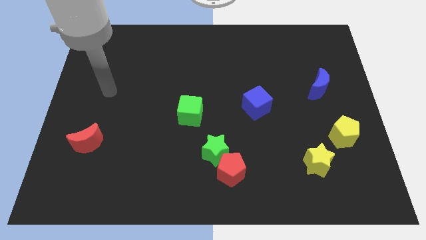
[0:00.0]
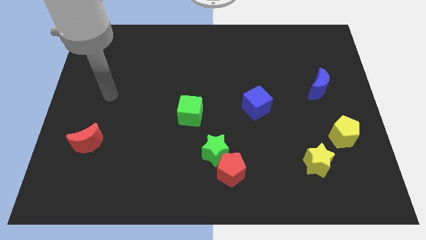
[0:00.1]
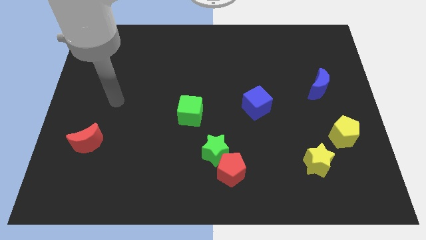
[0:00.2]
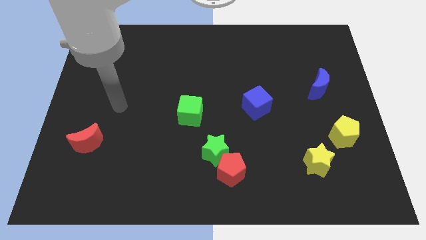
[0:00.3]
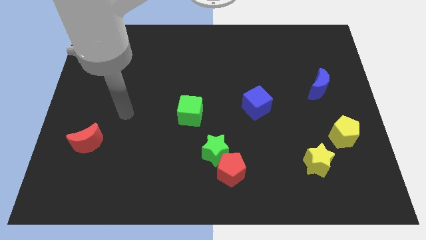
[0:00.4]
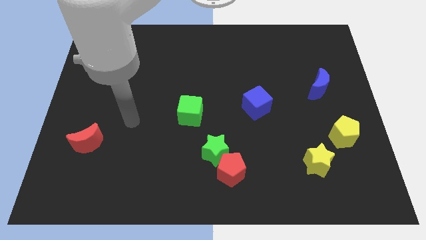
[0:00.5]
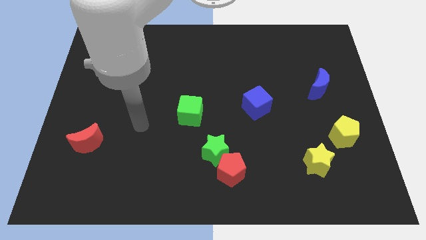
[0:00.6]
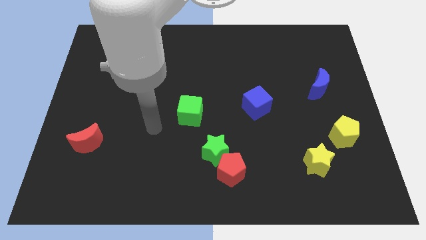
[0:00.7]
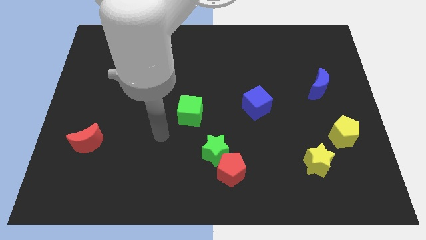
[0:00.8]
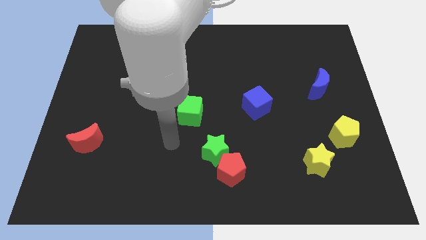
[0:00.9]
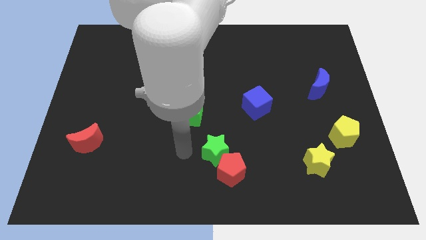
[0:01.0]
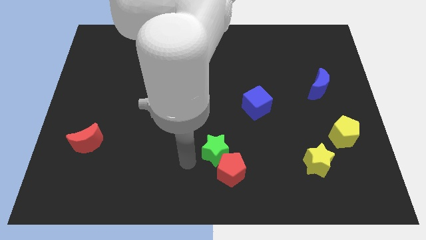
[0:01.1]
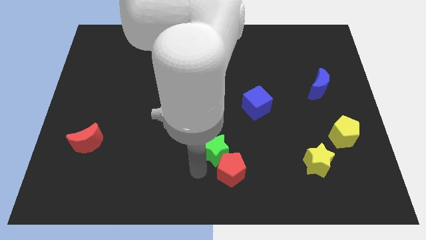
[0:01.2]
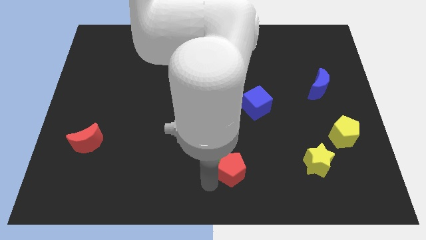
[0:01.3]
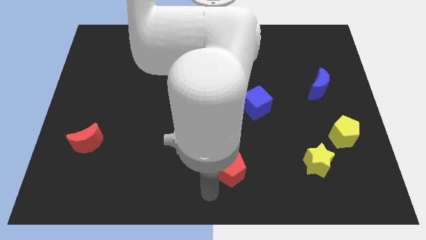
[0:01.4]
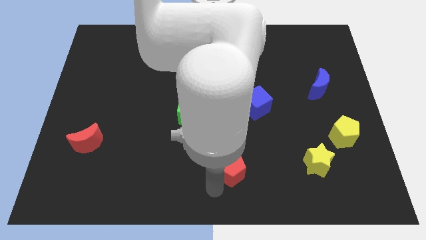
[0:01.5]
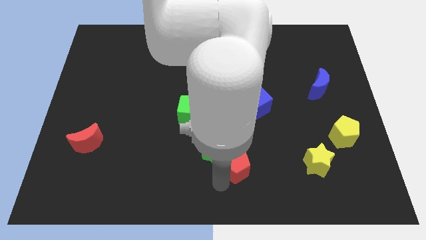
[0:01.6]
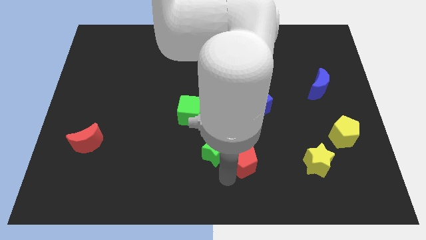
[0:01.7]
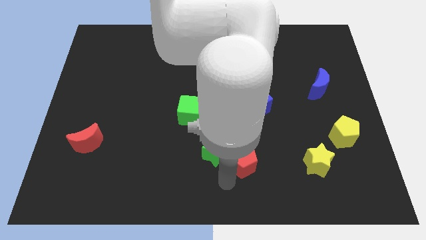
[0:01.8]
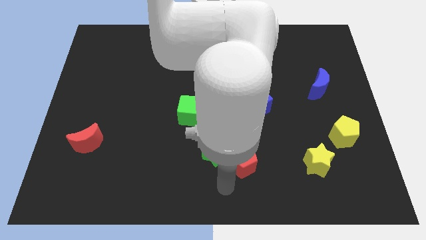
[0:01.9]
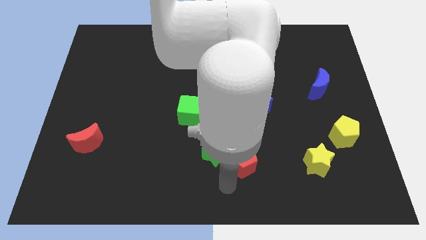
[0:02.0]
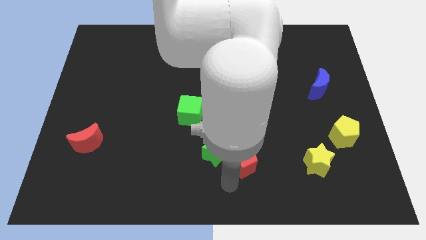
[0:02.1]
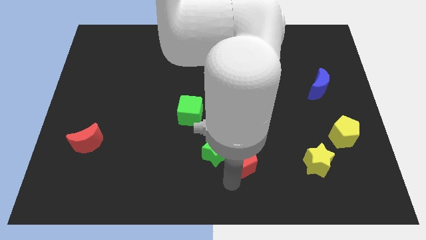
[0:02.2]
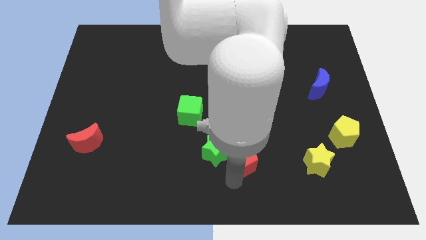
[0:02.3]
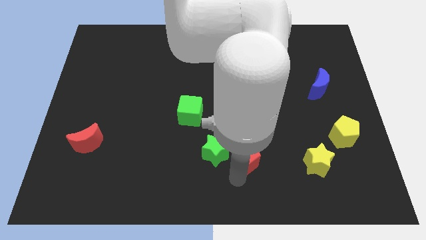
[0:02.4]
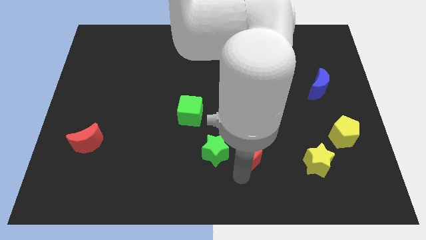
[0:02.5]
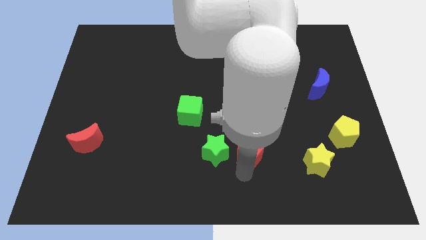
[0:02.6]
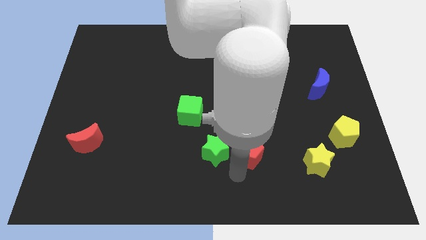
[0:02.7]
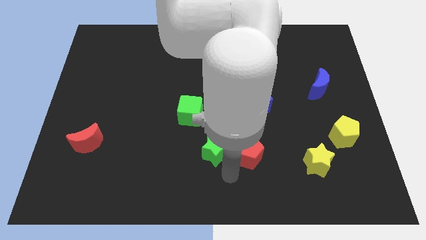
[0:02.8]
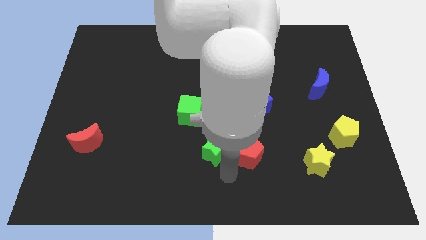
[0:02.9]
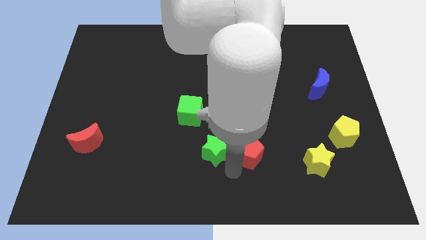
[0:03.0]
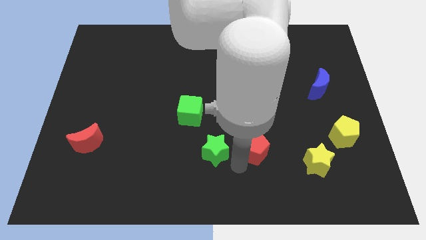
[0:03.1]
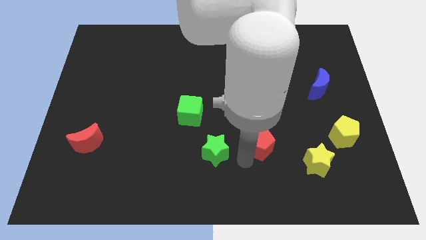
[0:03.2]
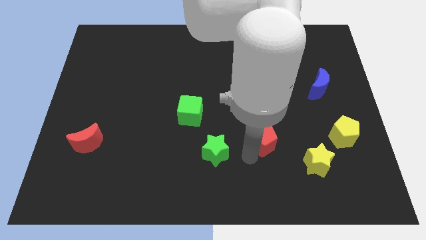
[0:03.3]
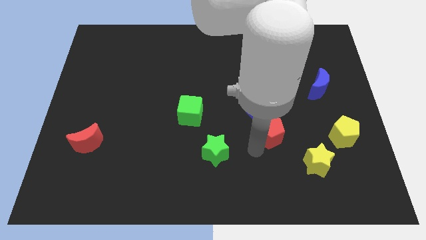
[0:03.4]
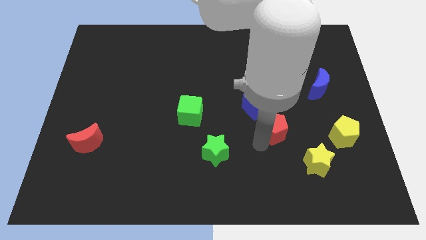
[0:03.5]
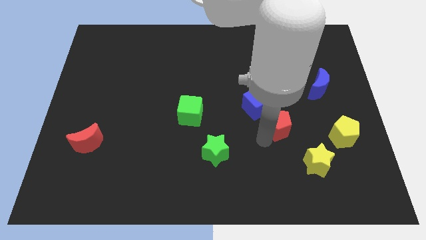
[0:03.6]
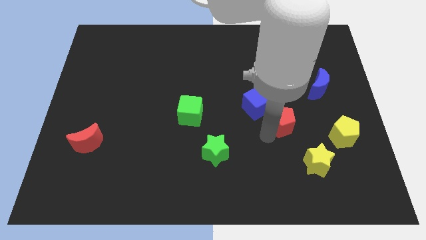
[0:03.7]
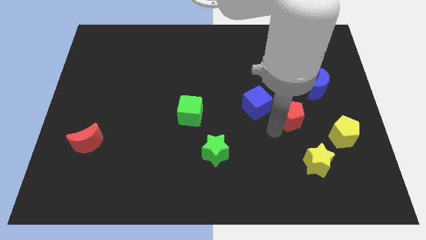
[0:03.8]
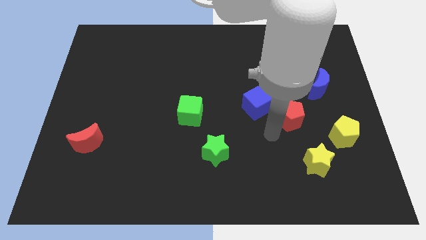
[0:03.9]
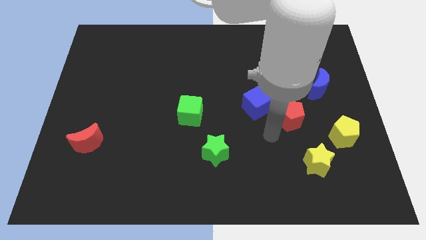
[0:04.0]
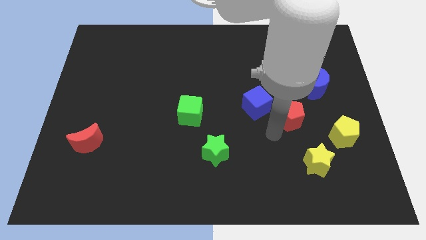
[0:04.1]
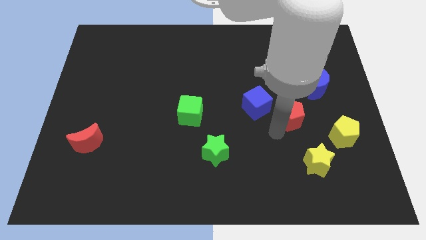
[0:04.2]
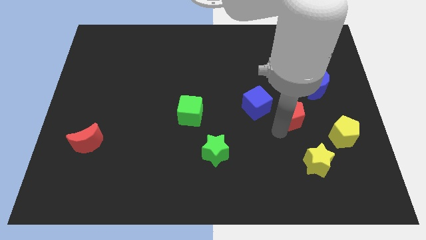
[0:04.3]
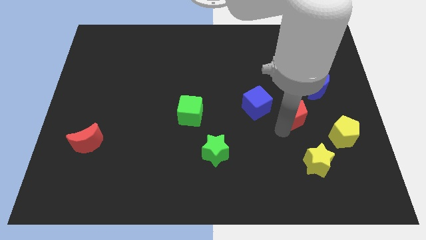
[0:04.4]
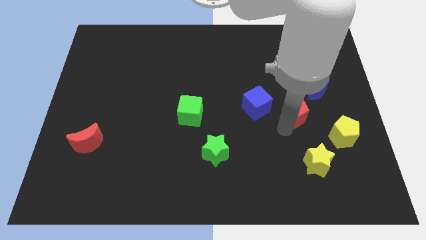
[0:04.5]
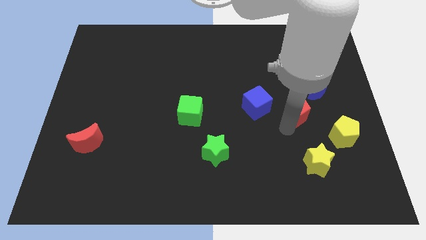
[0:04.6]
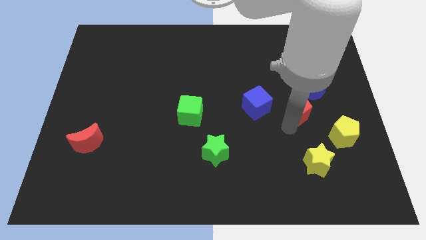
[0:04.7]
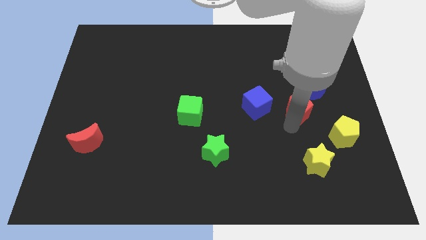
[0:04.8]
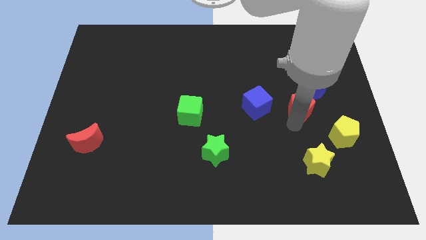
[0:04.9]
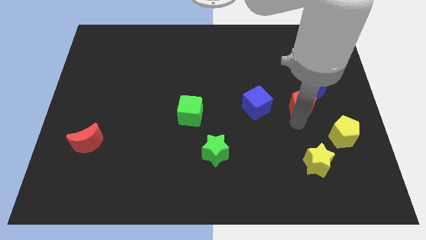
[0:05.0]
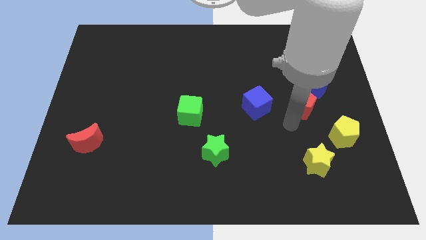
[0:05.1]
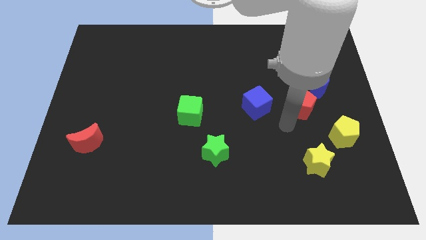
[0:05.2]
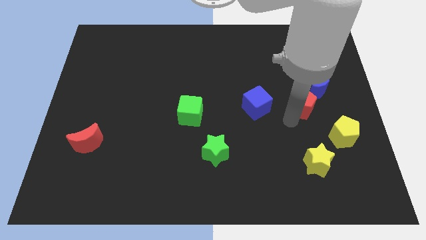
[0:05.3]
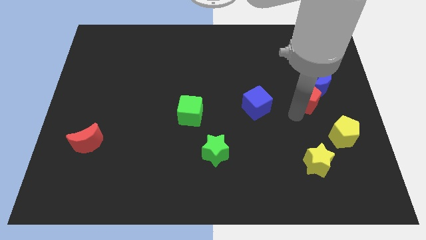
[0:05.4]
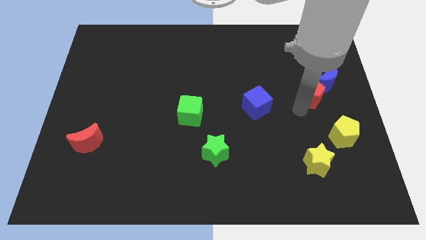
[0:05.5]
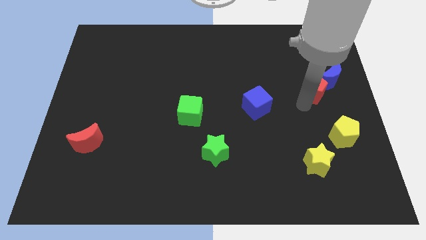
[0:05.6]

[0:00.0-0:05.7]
slide the red pentagon close to the blue moon

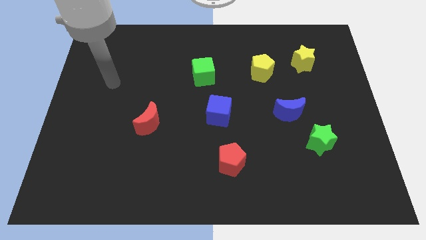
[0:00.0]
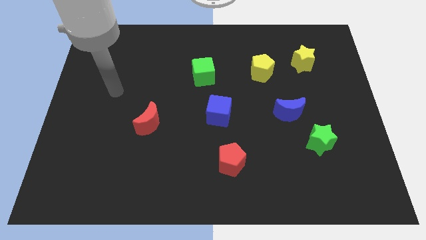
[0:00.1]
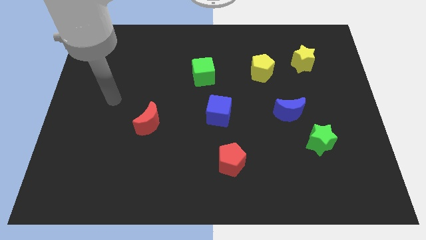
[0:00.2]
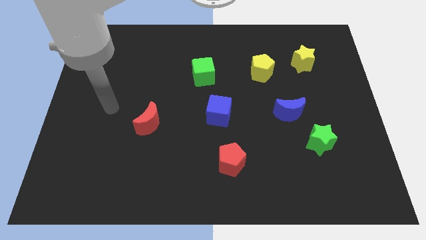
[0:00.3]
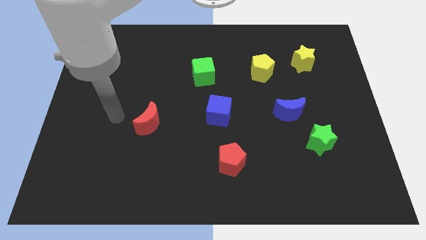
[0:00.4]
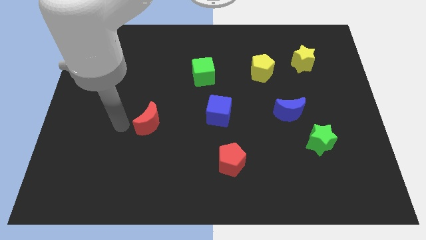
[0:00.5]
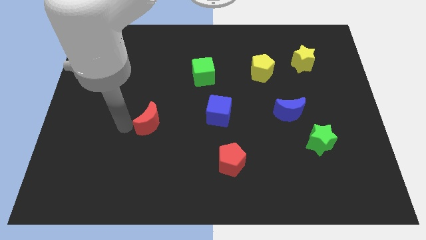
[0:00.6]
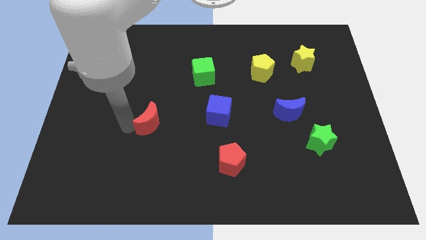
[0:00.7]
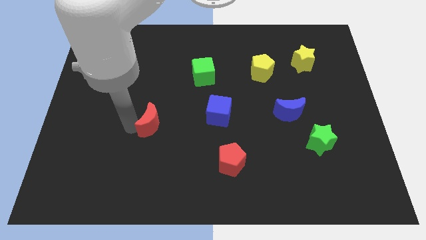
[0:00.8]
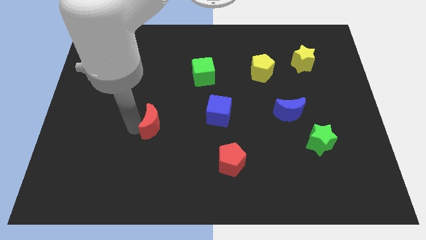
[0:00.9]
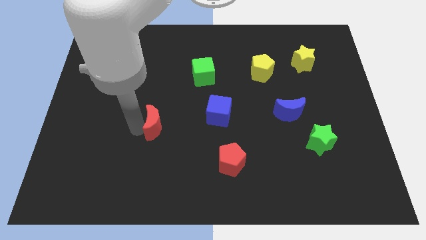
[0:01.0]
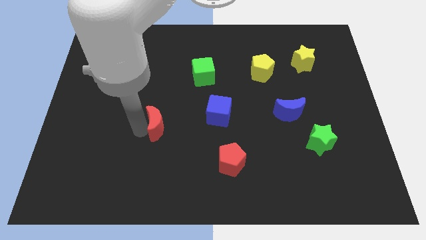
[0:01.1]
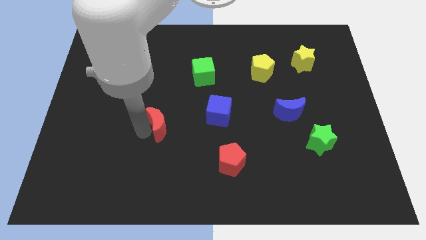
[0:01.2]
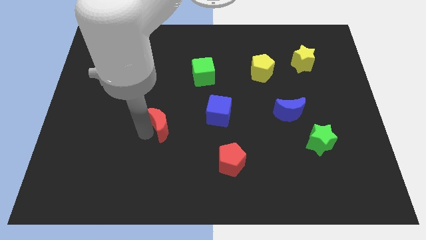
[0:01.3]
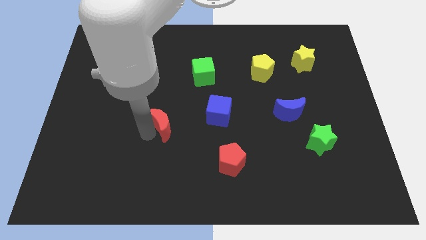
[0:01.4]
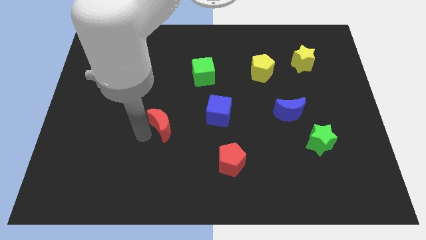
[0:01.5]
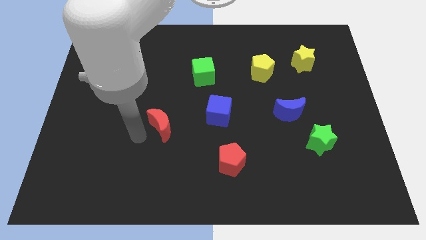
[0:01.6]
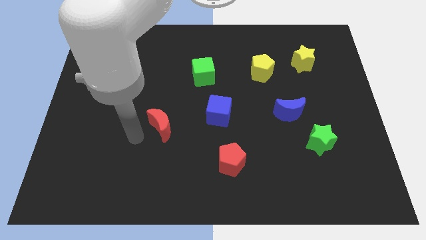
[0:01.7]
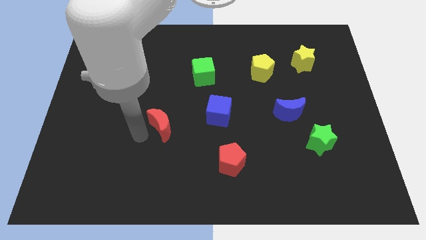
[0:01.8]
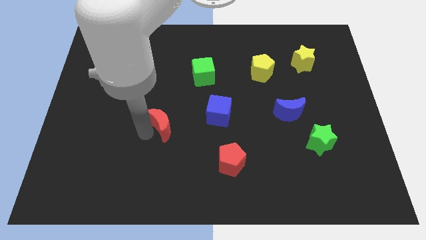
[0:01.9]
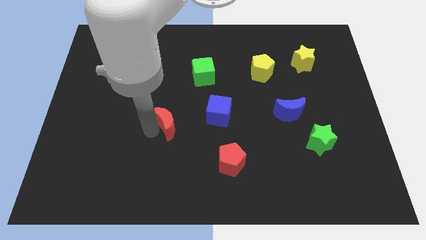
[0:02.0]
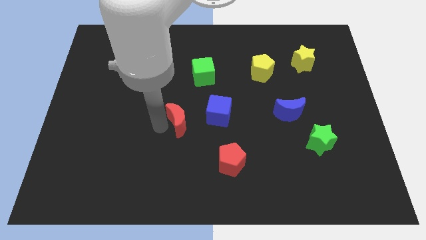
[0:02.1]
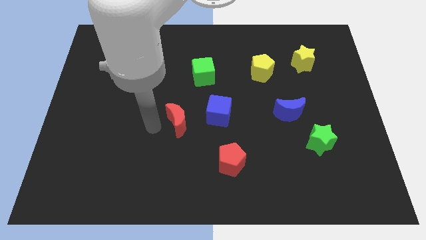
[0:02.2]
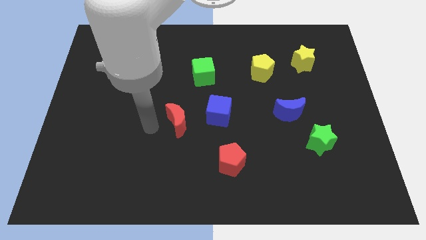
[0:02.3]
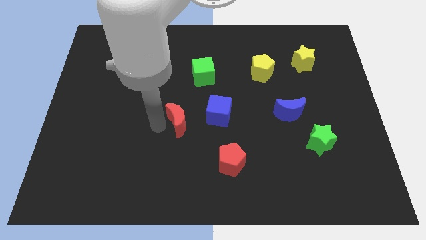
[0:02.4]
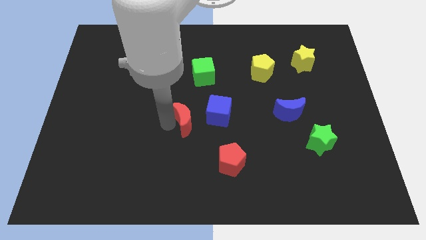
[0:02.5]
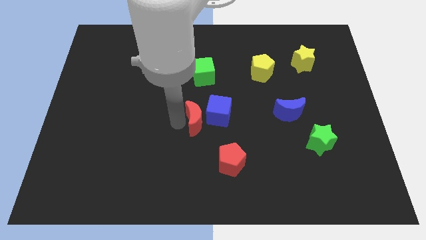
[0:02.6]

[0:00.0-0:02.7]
put the red moon close to the blue cube
